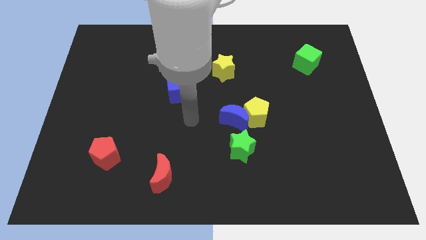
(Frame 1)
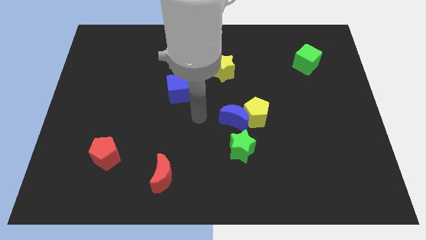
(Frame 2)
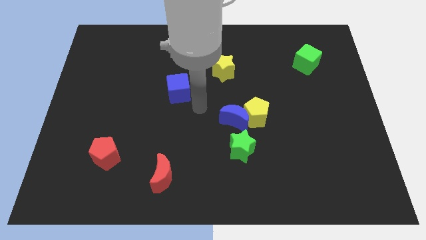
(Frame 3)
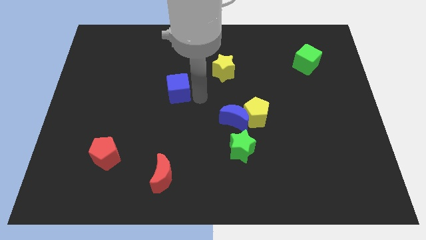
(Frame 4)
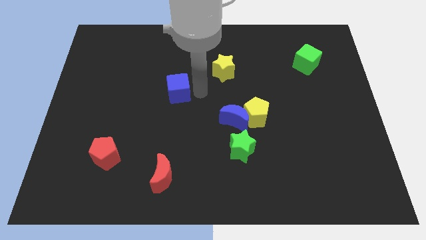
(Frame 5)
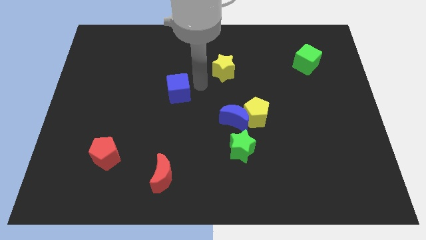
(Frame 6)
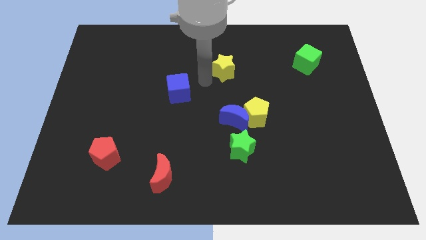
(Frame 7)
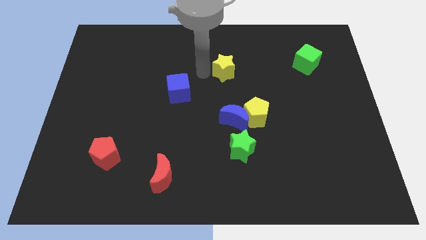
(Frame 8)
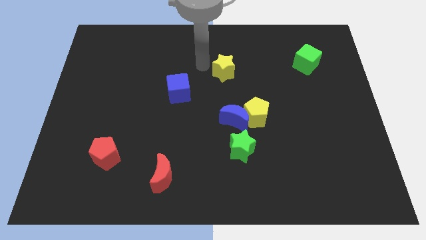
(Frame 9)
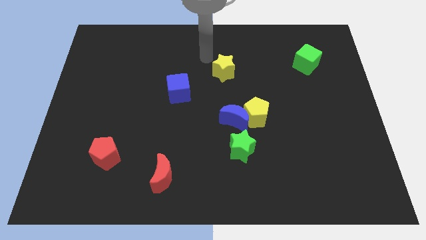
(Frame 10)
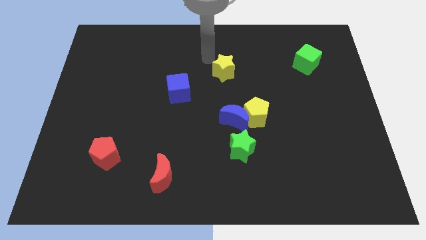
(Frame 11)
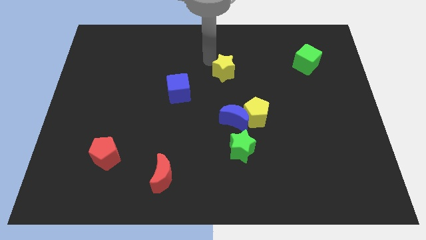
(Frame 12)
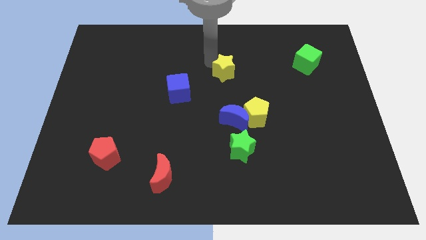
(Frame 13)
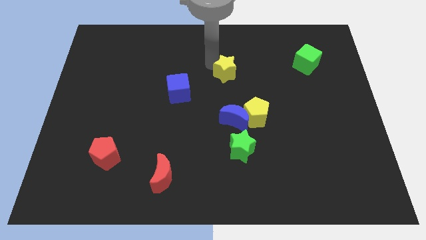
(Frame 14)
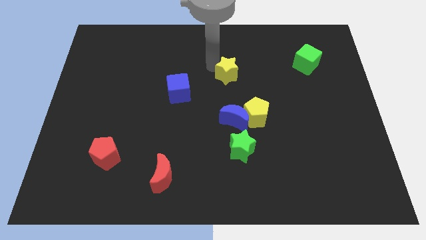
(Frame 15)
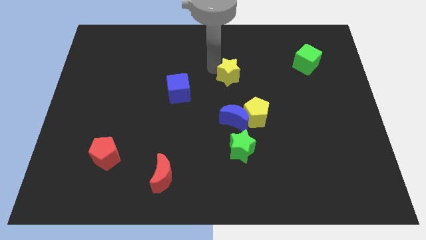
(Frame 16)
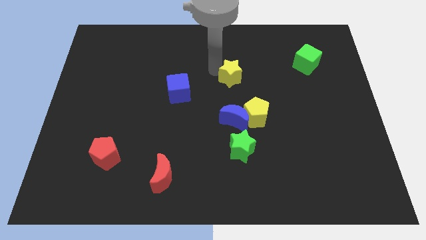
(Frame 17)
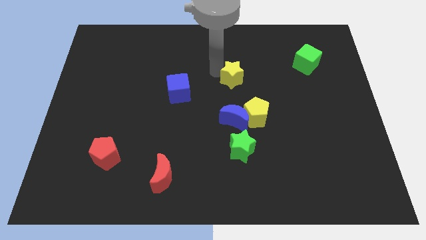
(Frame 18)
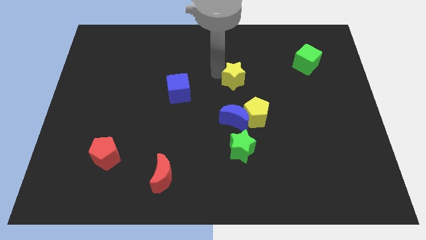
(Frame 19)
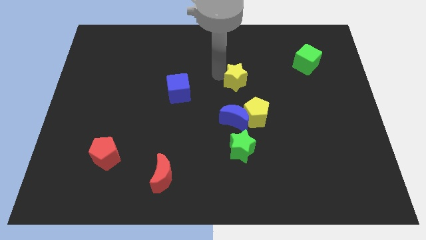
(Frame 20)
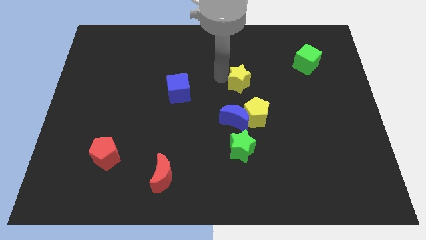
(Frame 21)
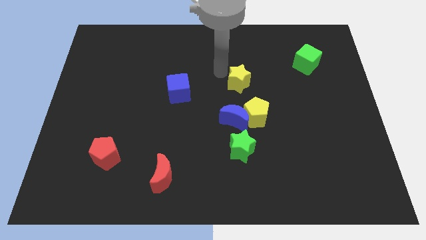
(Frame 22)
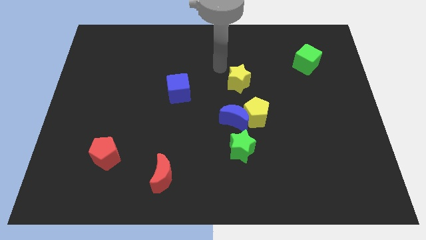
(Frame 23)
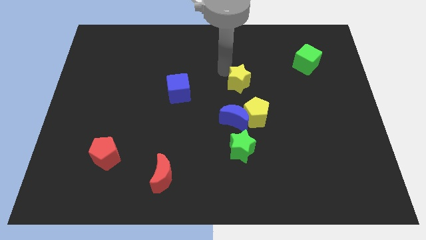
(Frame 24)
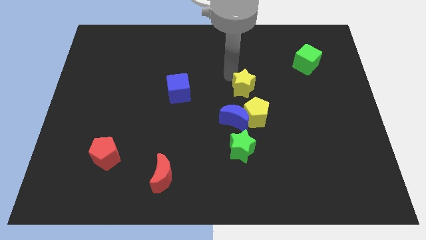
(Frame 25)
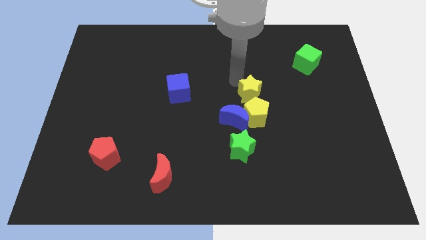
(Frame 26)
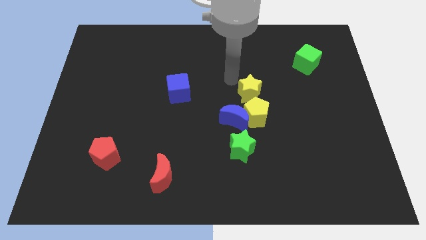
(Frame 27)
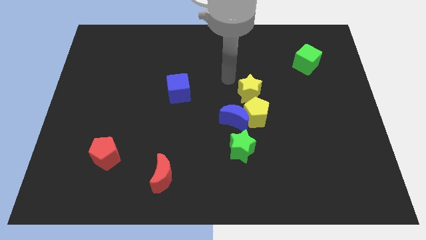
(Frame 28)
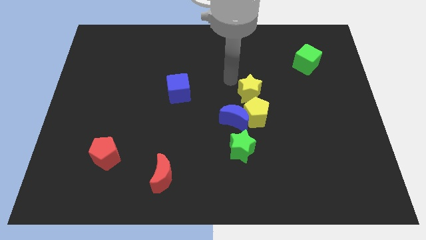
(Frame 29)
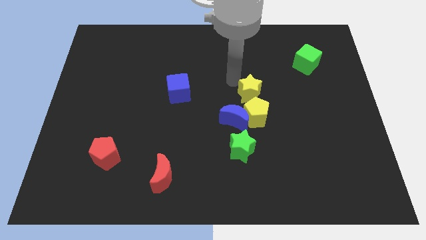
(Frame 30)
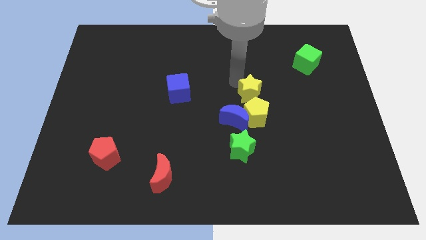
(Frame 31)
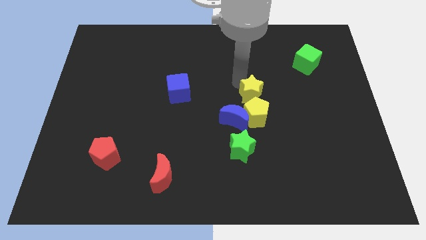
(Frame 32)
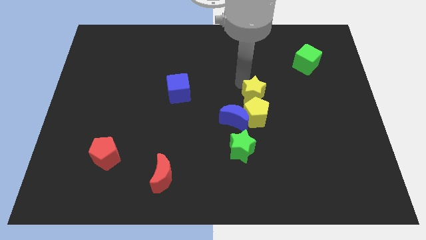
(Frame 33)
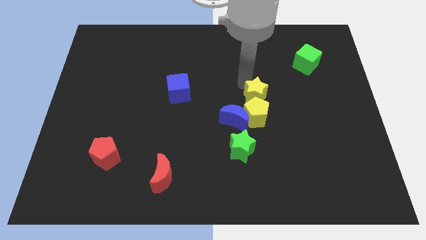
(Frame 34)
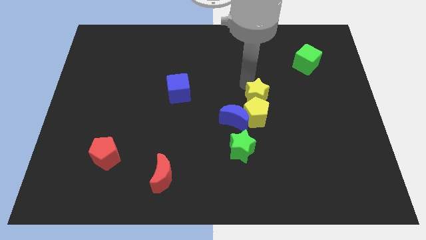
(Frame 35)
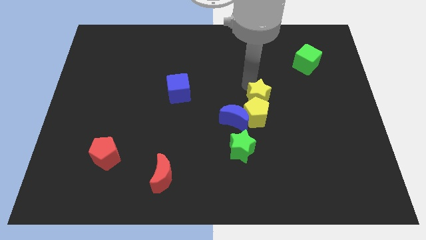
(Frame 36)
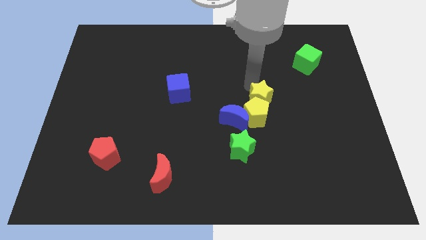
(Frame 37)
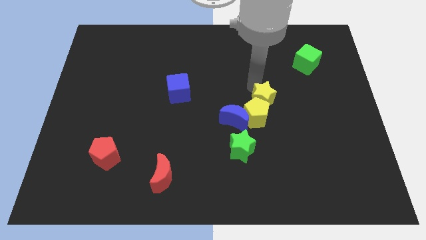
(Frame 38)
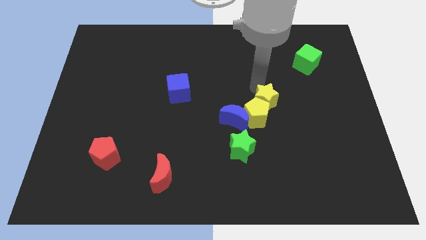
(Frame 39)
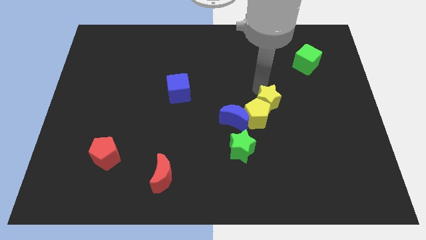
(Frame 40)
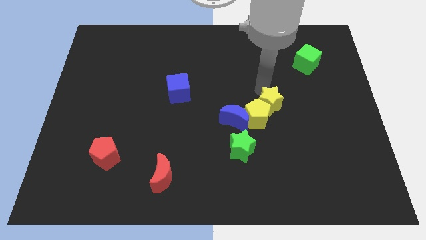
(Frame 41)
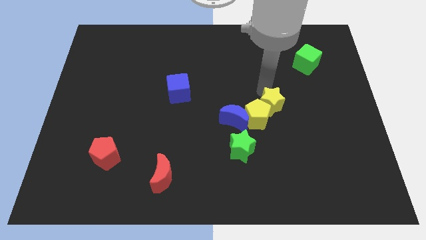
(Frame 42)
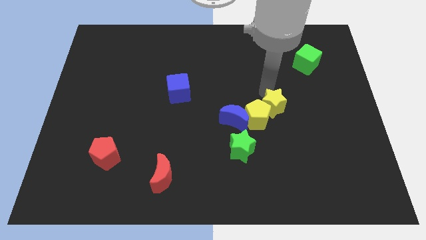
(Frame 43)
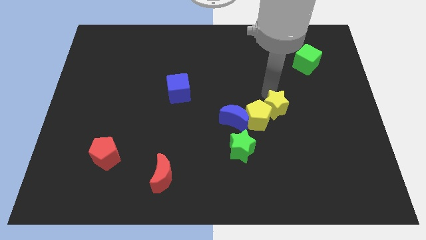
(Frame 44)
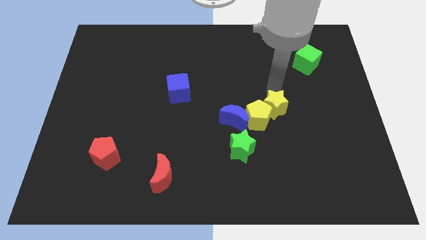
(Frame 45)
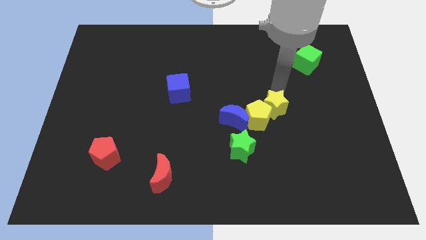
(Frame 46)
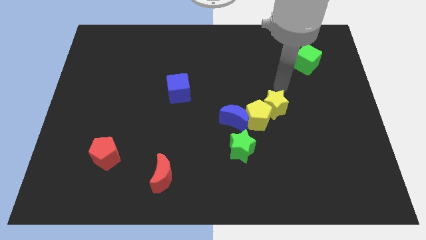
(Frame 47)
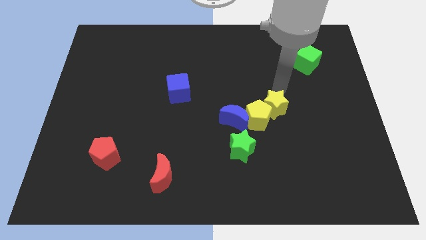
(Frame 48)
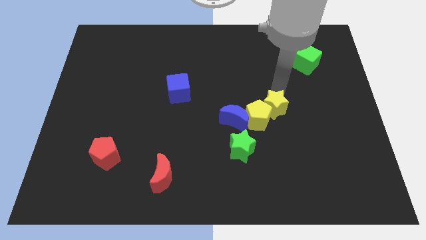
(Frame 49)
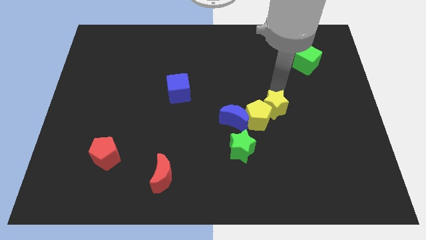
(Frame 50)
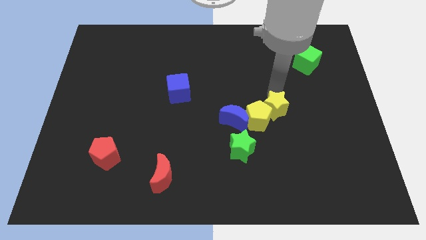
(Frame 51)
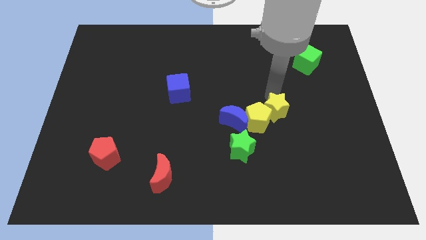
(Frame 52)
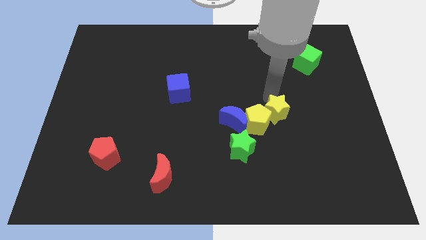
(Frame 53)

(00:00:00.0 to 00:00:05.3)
move the yellow star to the top right of the green star

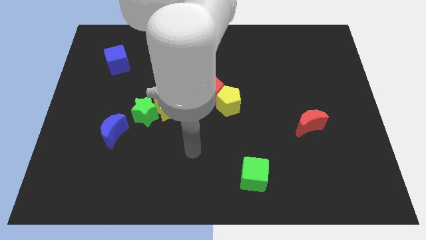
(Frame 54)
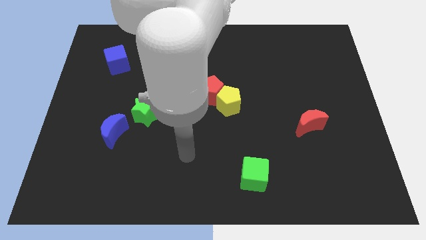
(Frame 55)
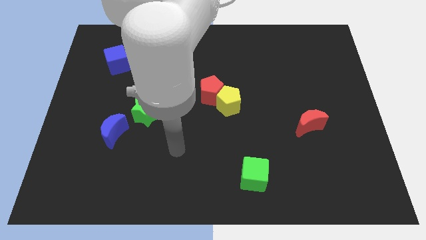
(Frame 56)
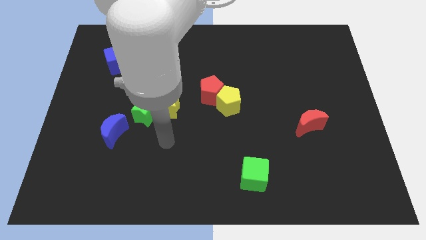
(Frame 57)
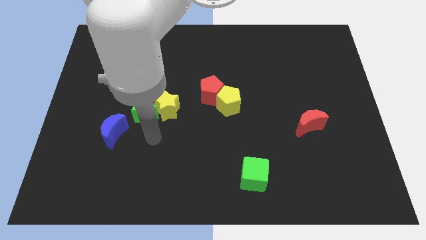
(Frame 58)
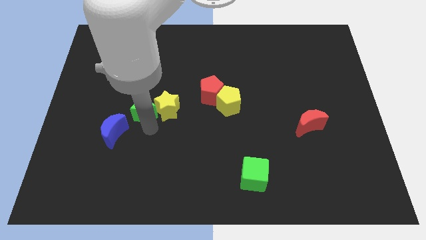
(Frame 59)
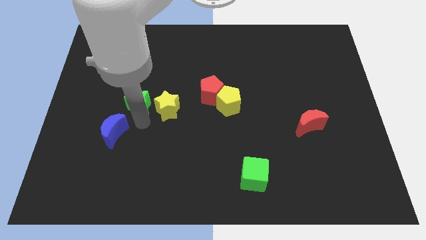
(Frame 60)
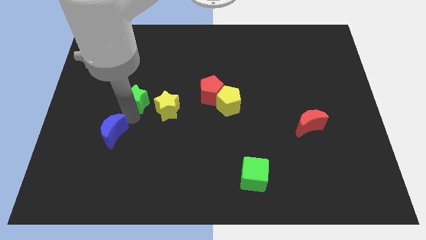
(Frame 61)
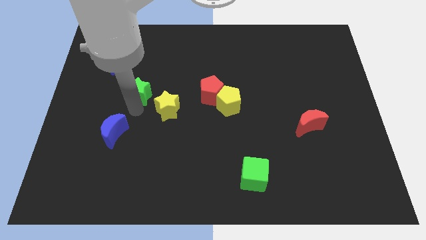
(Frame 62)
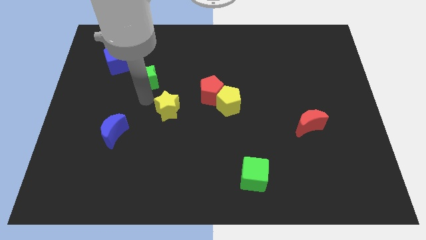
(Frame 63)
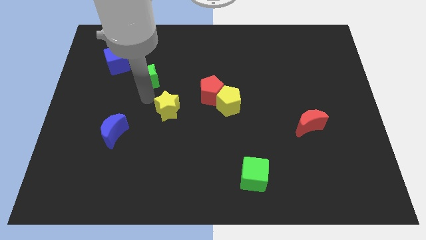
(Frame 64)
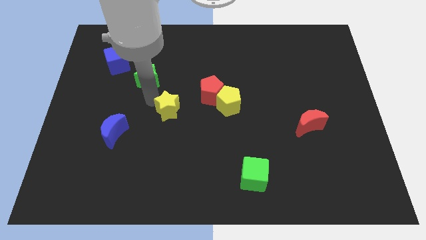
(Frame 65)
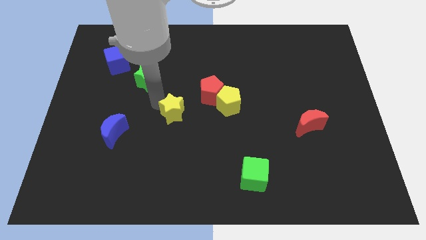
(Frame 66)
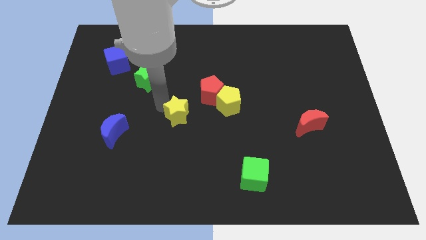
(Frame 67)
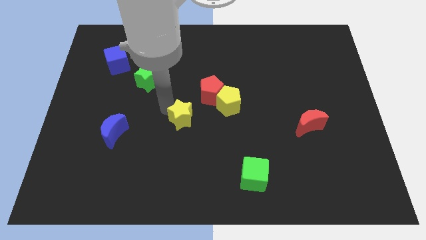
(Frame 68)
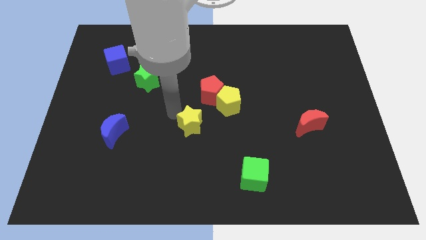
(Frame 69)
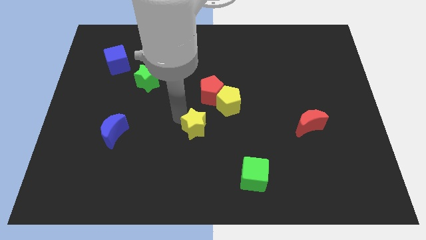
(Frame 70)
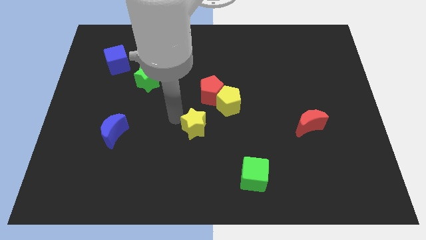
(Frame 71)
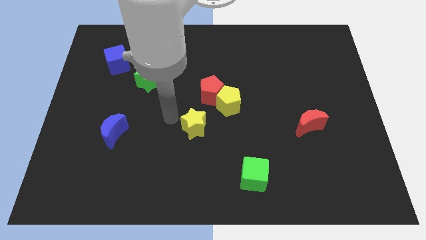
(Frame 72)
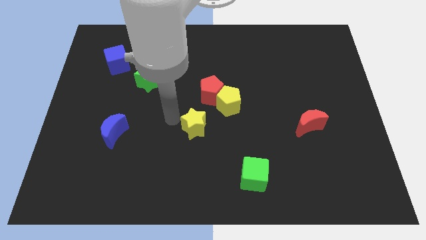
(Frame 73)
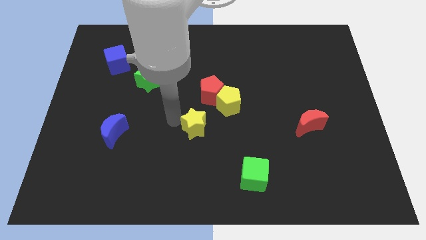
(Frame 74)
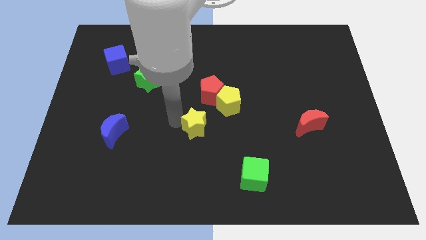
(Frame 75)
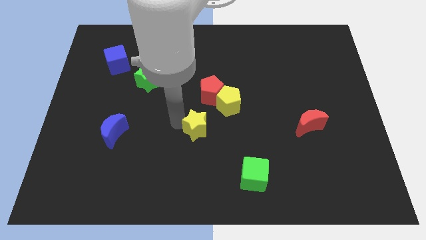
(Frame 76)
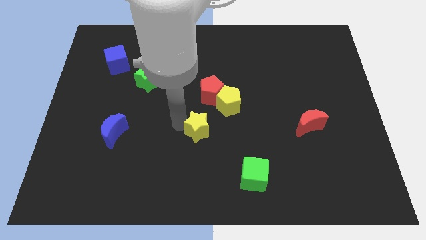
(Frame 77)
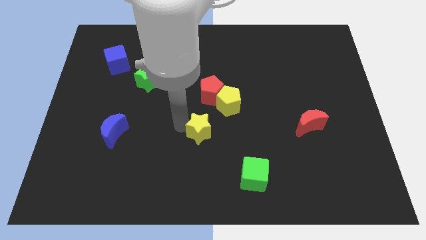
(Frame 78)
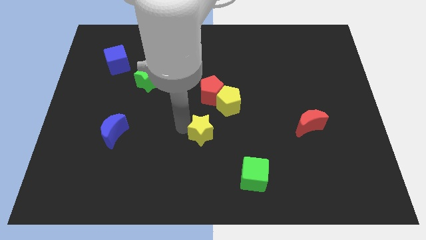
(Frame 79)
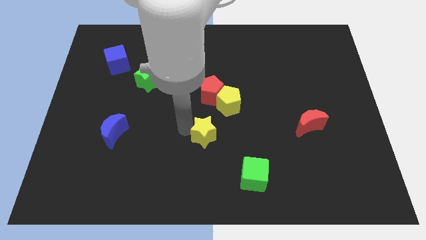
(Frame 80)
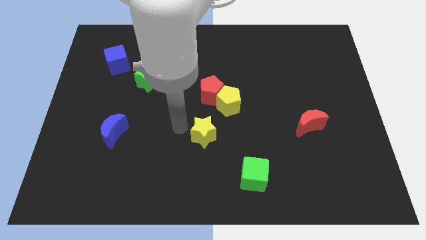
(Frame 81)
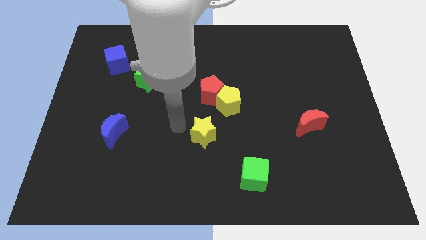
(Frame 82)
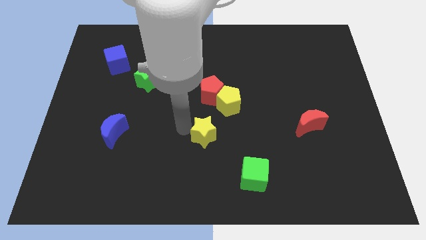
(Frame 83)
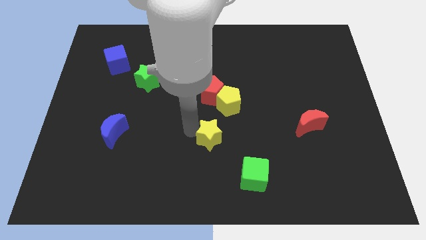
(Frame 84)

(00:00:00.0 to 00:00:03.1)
move the yellow star to the bottom of the yellow pentagon
